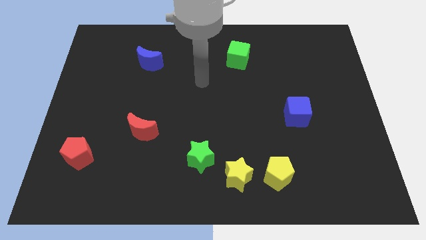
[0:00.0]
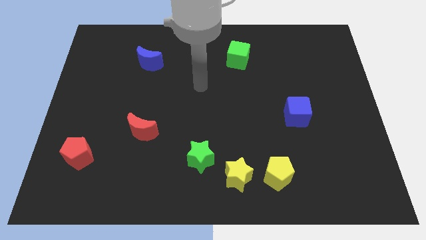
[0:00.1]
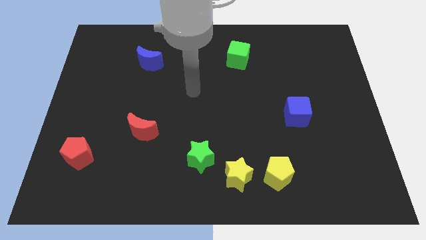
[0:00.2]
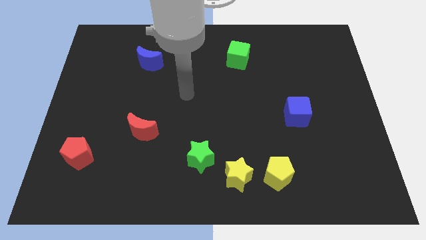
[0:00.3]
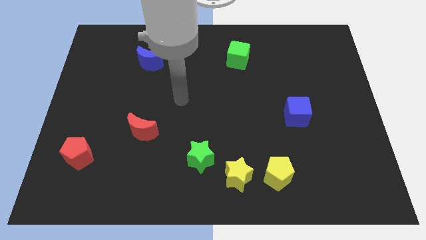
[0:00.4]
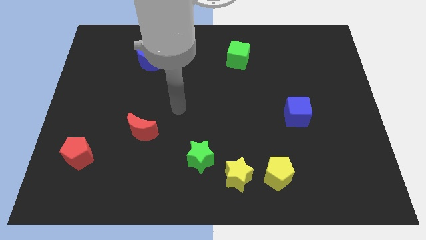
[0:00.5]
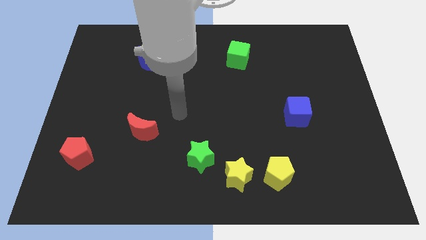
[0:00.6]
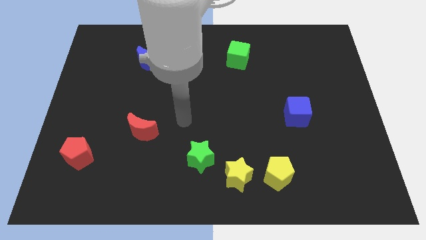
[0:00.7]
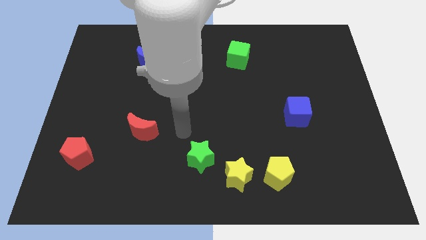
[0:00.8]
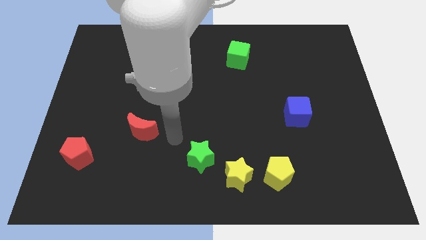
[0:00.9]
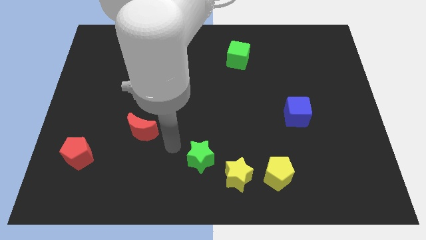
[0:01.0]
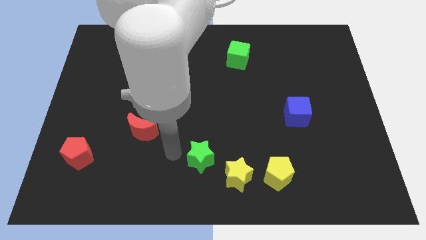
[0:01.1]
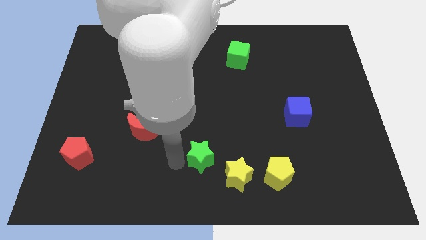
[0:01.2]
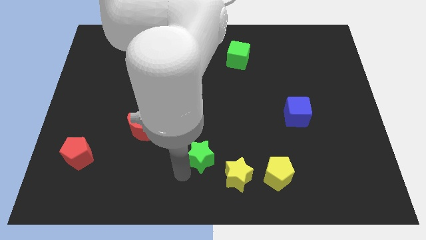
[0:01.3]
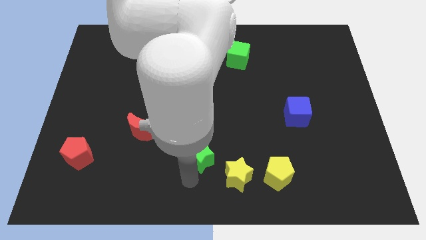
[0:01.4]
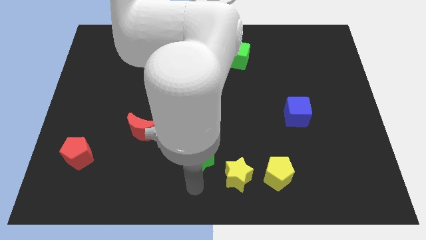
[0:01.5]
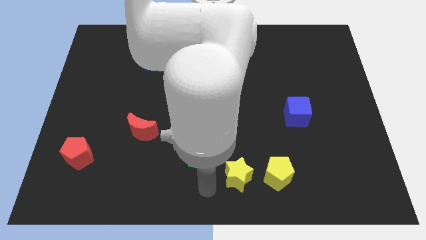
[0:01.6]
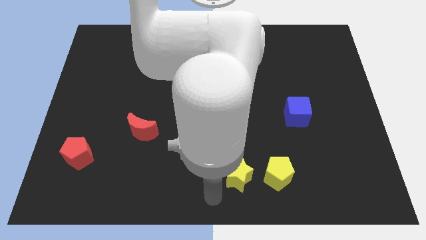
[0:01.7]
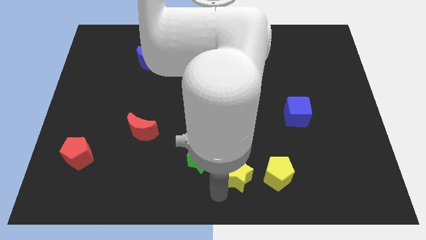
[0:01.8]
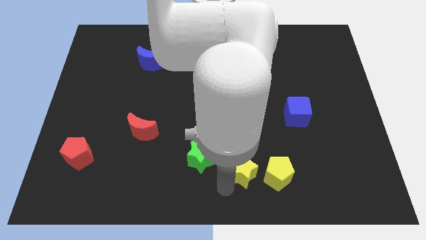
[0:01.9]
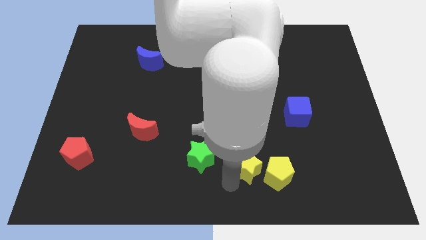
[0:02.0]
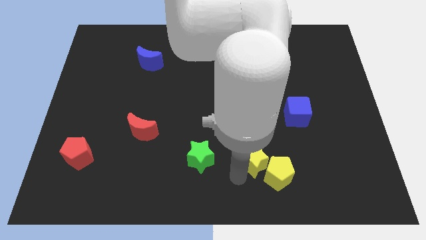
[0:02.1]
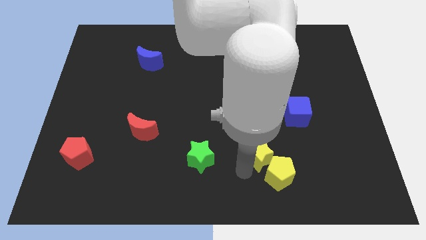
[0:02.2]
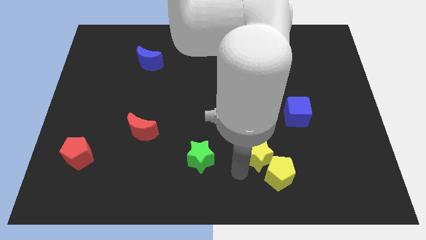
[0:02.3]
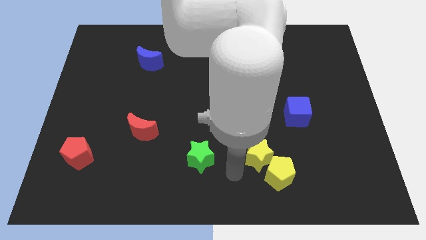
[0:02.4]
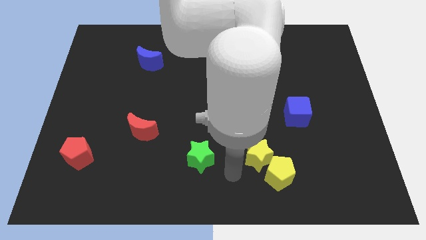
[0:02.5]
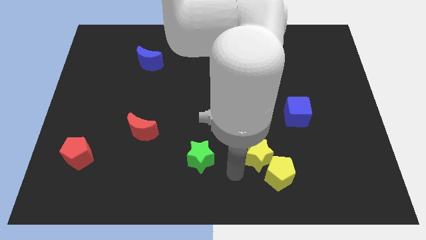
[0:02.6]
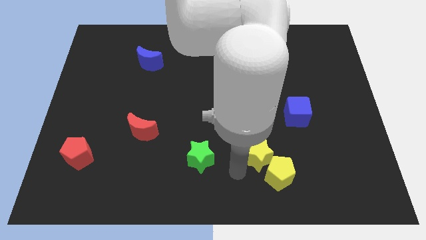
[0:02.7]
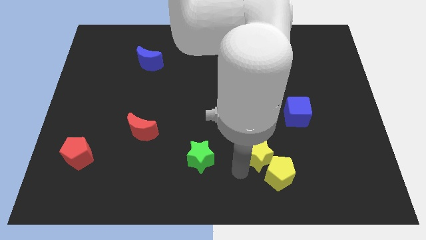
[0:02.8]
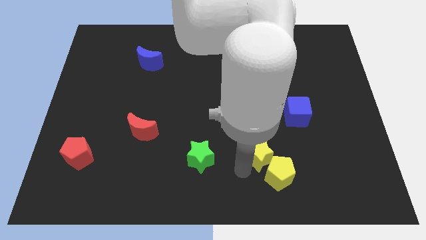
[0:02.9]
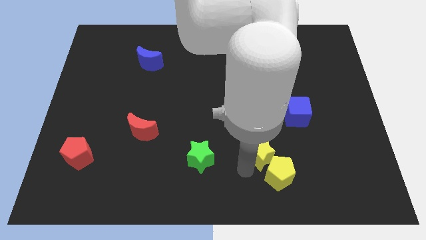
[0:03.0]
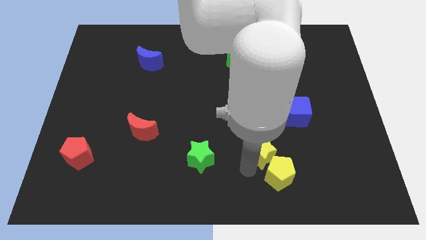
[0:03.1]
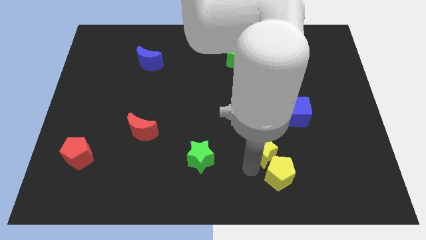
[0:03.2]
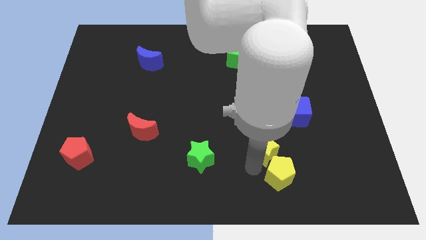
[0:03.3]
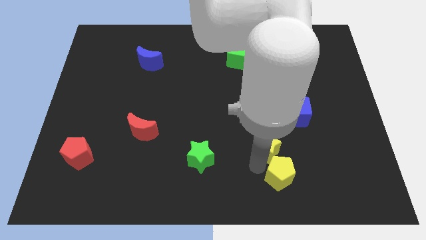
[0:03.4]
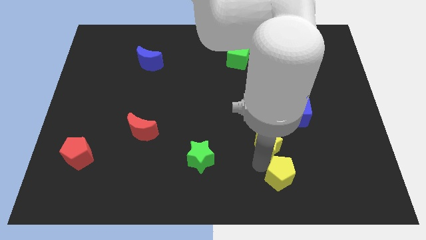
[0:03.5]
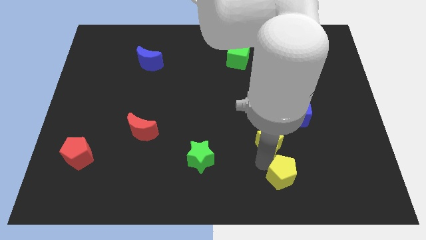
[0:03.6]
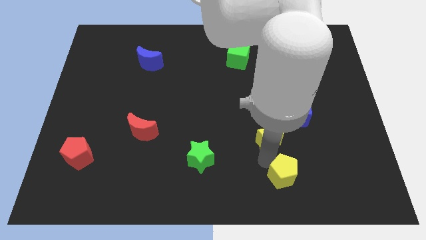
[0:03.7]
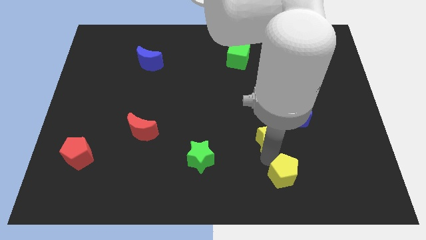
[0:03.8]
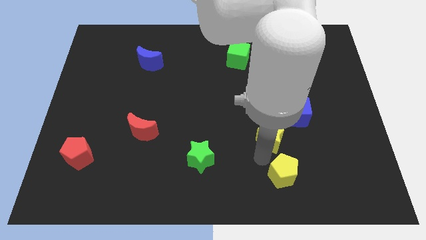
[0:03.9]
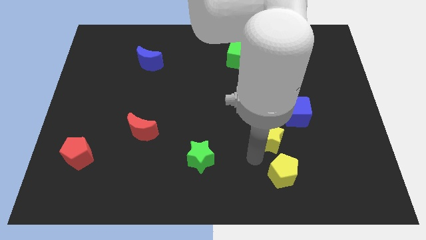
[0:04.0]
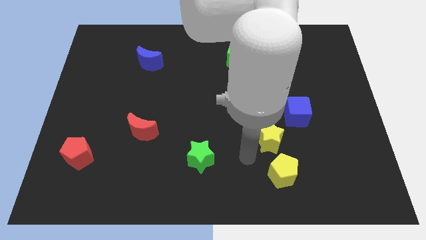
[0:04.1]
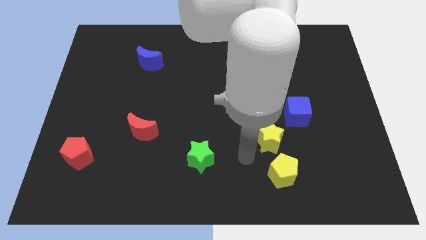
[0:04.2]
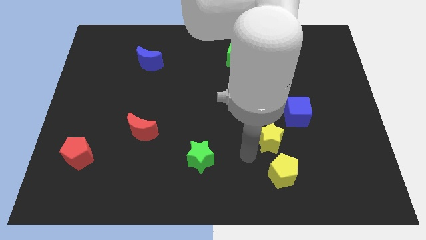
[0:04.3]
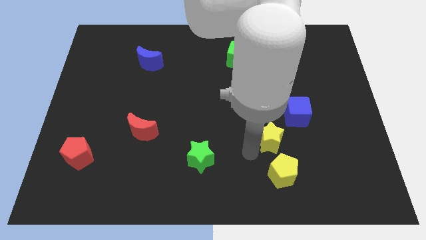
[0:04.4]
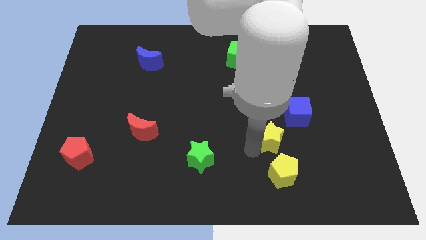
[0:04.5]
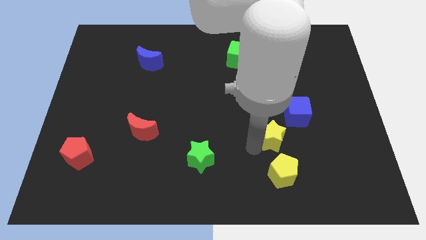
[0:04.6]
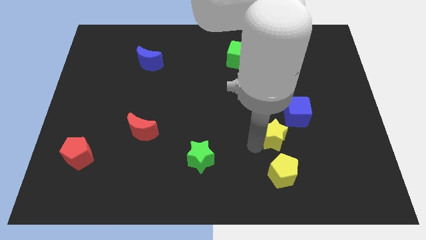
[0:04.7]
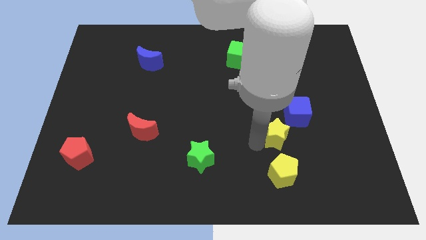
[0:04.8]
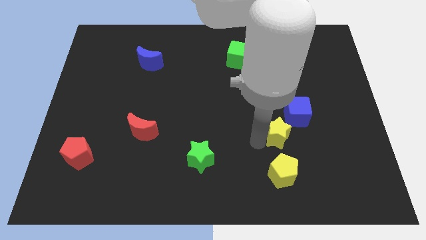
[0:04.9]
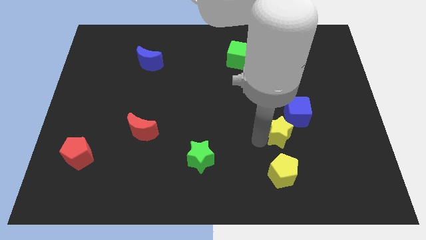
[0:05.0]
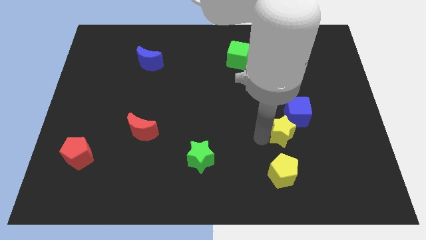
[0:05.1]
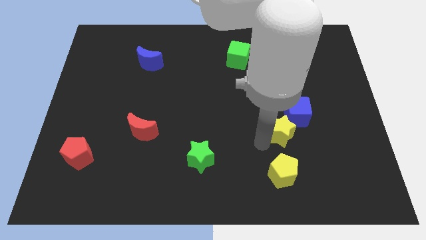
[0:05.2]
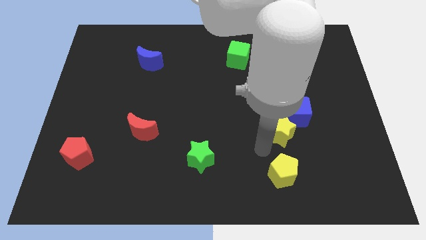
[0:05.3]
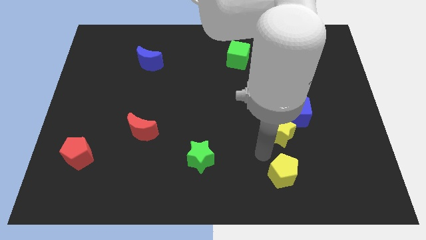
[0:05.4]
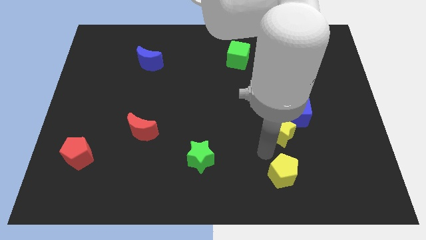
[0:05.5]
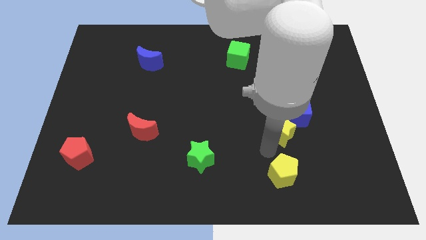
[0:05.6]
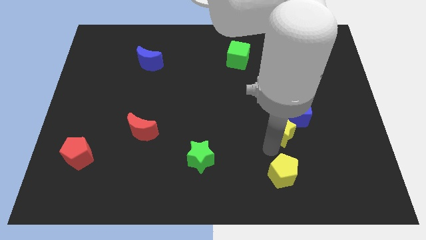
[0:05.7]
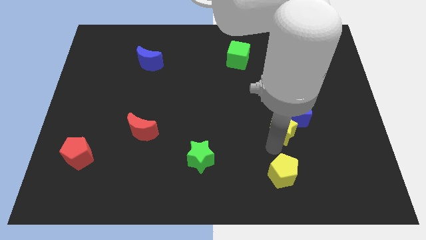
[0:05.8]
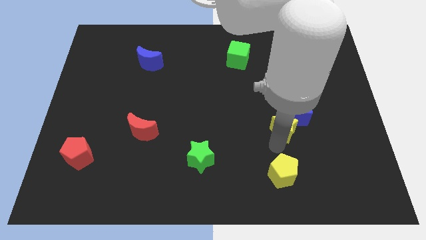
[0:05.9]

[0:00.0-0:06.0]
put the yellow star towards the blue cube

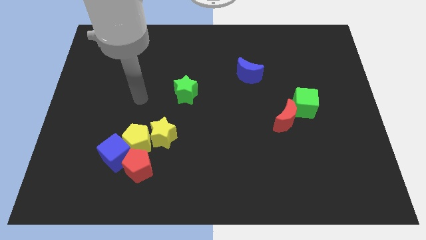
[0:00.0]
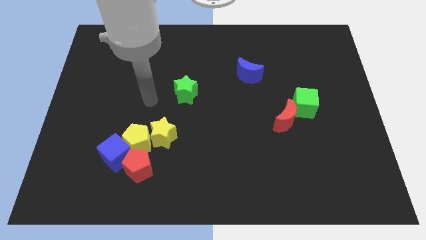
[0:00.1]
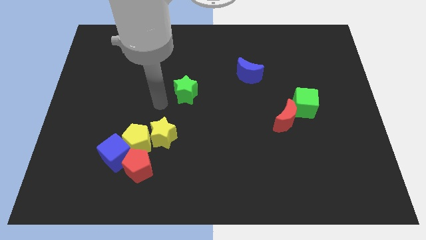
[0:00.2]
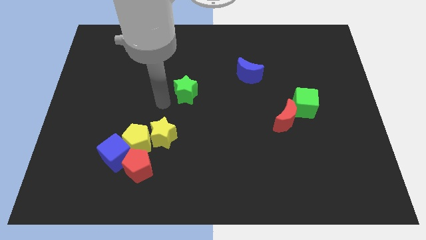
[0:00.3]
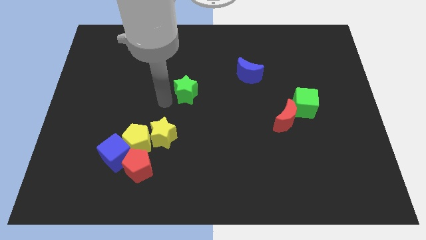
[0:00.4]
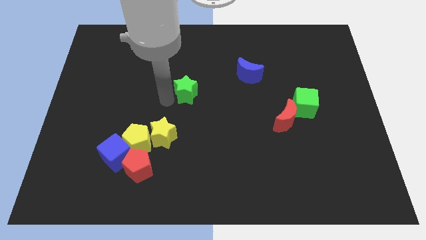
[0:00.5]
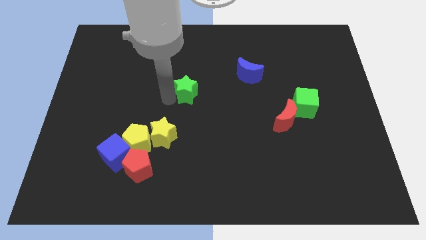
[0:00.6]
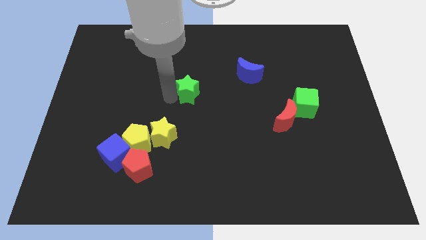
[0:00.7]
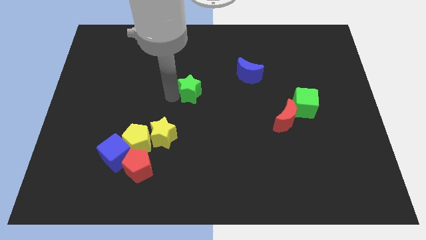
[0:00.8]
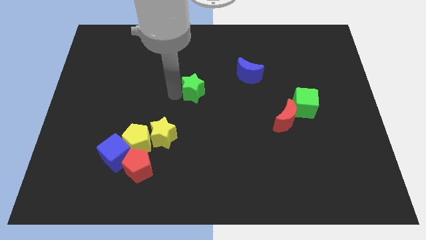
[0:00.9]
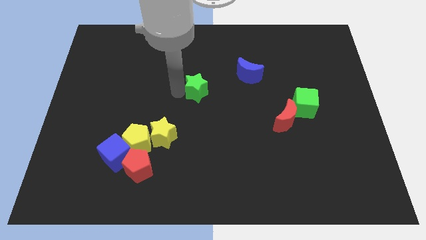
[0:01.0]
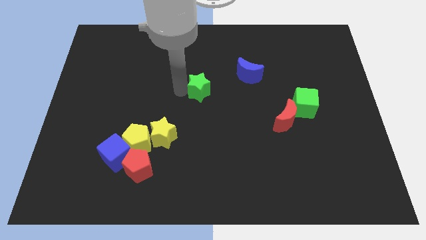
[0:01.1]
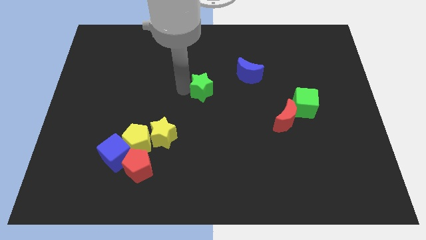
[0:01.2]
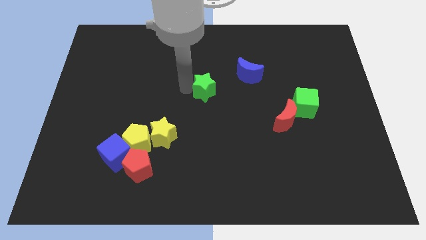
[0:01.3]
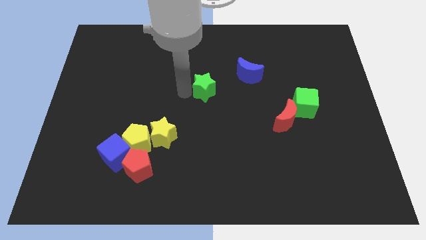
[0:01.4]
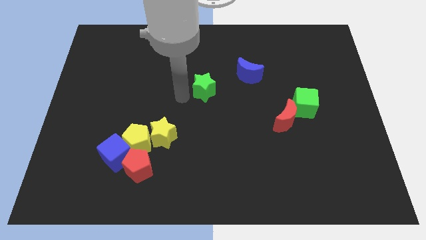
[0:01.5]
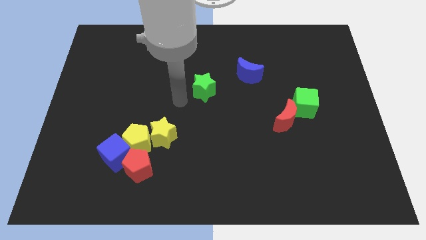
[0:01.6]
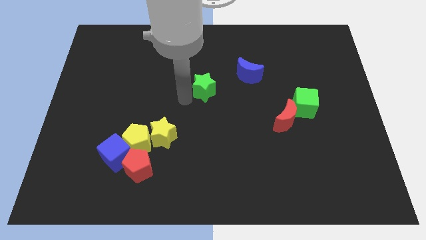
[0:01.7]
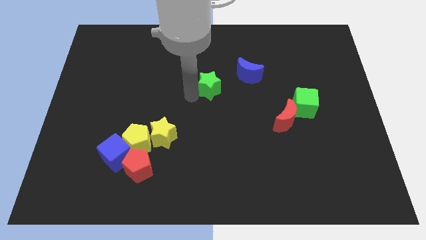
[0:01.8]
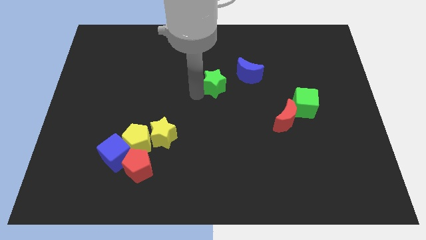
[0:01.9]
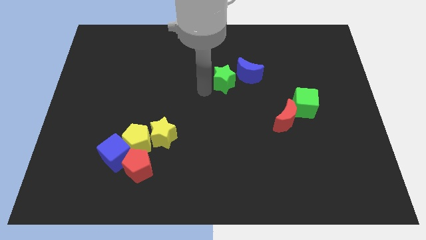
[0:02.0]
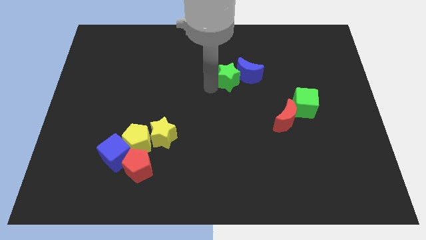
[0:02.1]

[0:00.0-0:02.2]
put the green star close to the blue moon
